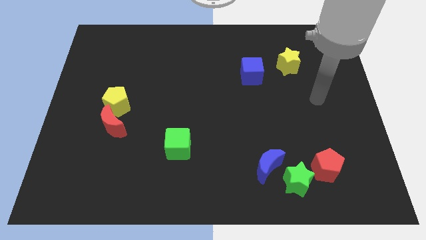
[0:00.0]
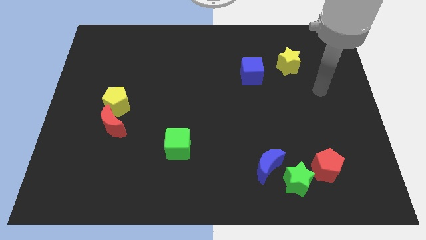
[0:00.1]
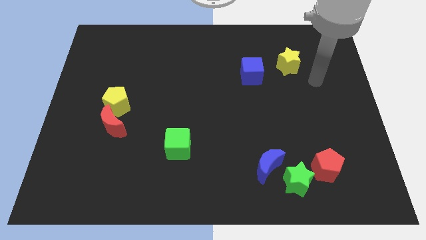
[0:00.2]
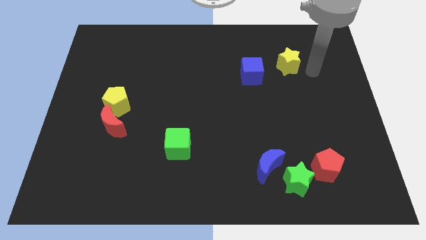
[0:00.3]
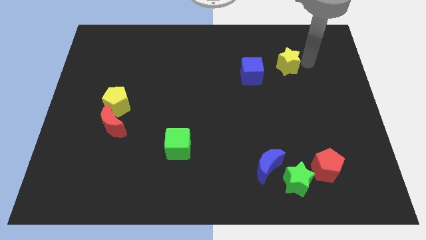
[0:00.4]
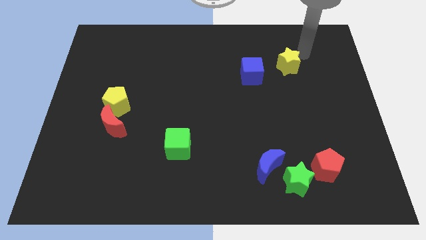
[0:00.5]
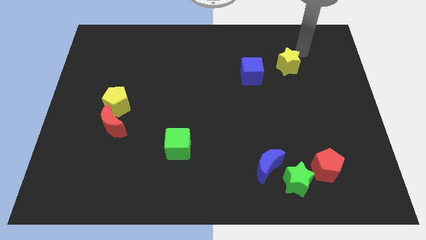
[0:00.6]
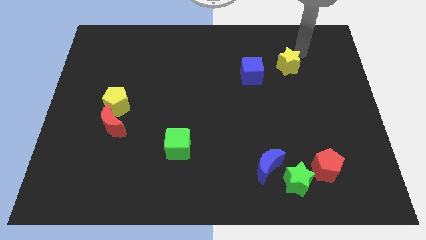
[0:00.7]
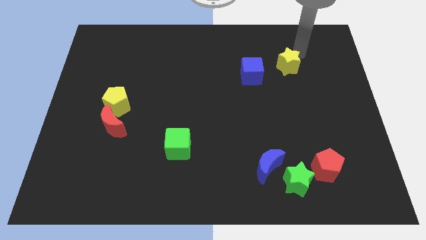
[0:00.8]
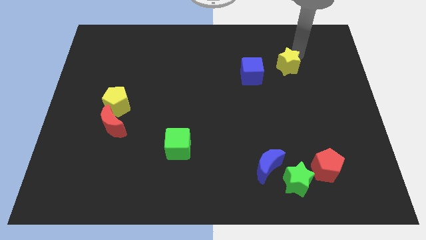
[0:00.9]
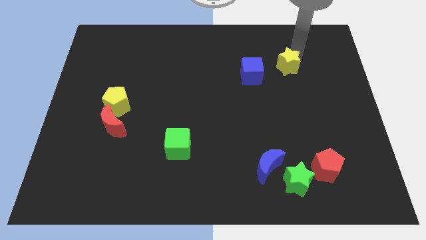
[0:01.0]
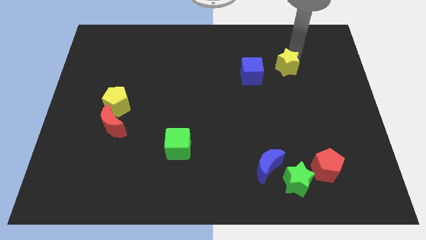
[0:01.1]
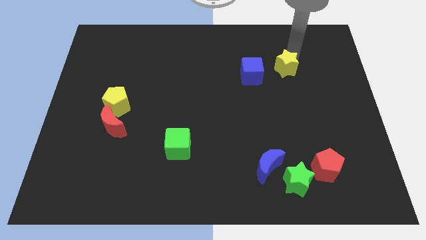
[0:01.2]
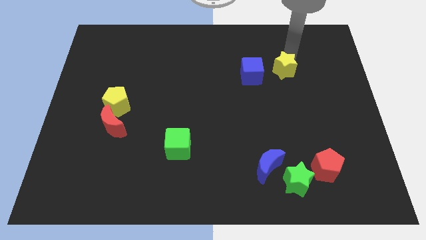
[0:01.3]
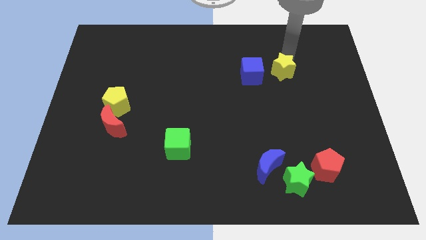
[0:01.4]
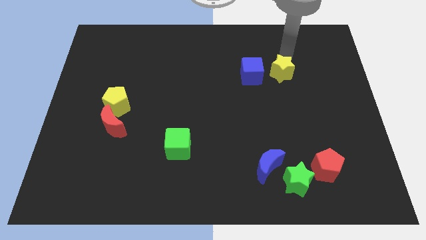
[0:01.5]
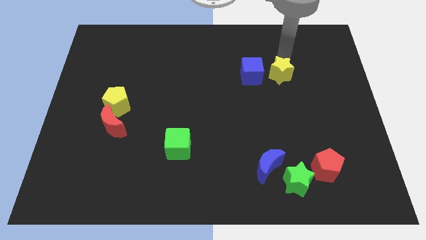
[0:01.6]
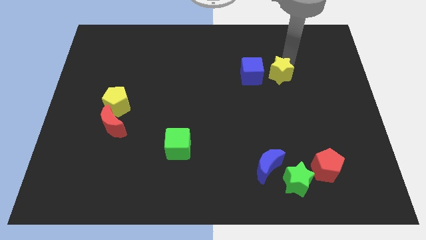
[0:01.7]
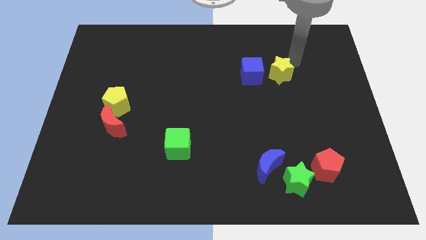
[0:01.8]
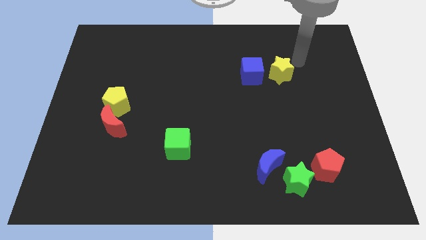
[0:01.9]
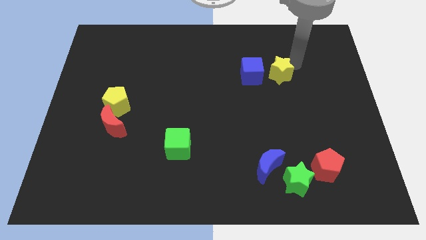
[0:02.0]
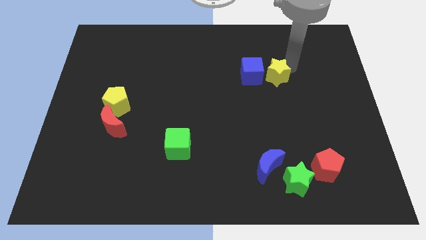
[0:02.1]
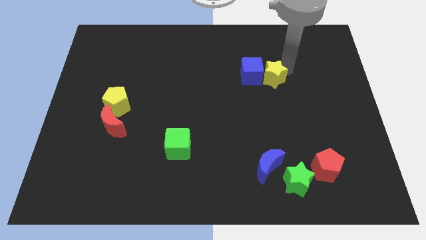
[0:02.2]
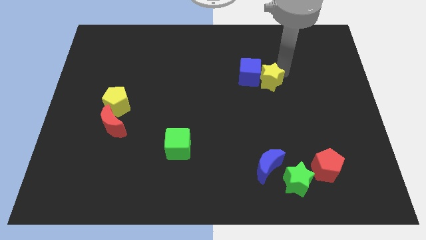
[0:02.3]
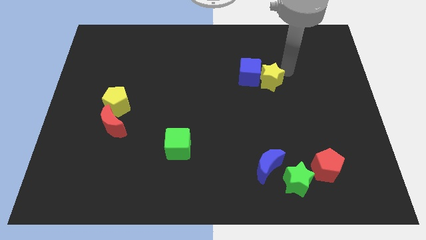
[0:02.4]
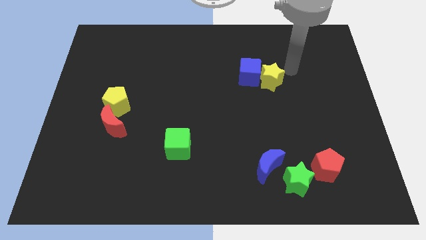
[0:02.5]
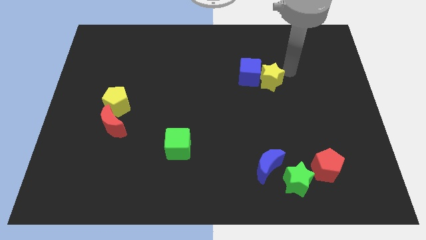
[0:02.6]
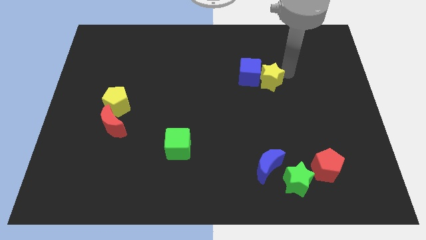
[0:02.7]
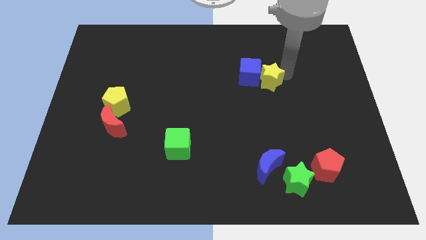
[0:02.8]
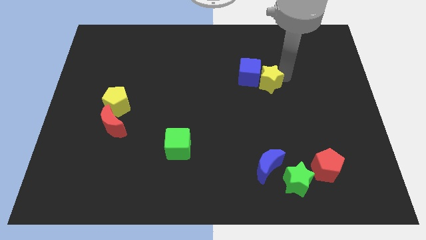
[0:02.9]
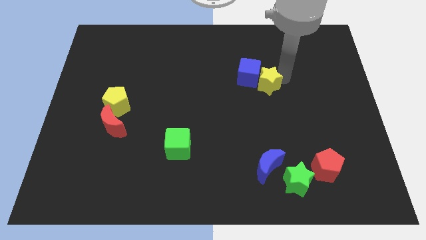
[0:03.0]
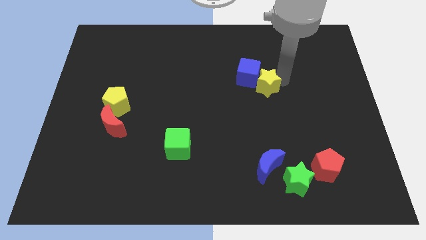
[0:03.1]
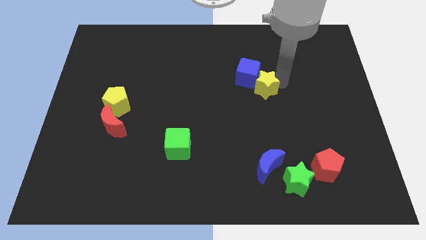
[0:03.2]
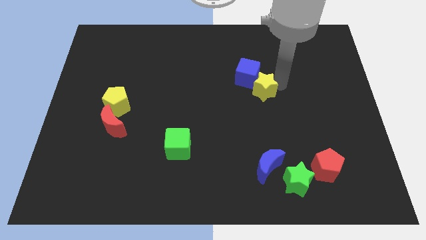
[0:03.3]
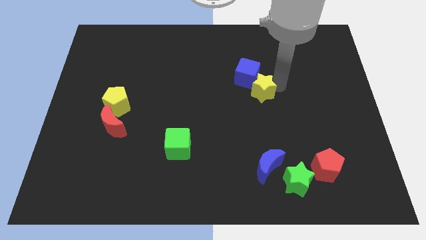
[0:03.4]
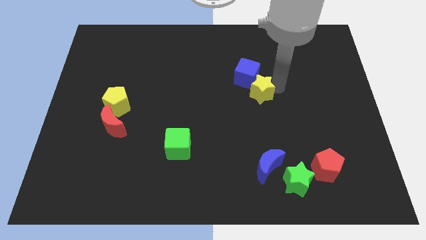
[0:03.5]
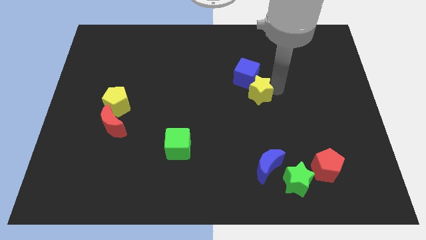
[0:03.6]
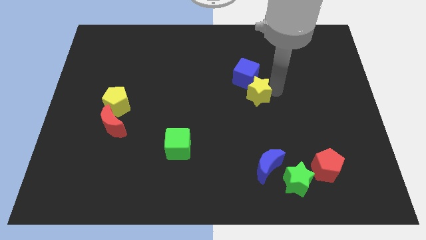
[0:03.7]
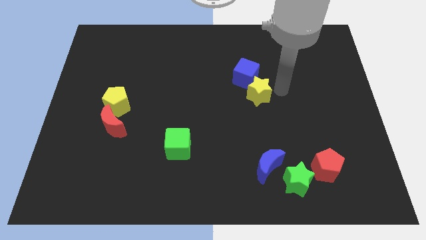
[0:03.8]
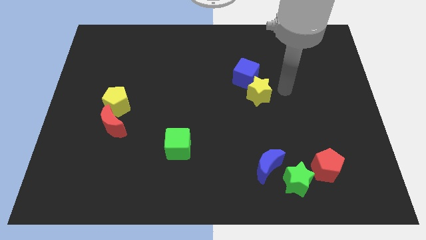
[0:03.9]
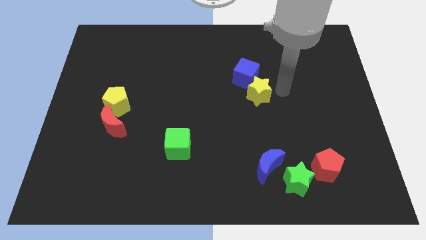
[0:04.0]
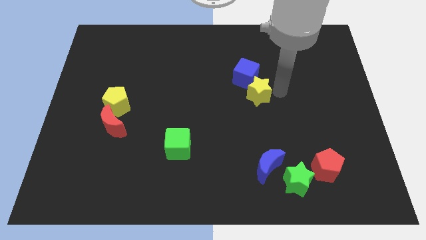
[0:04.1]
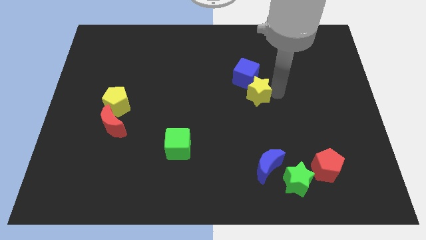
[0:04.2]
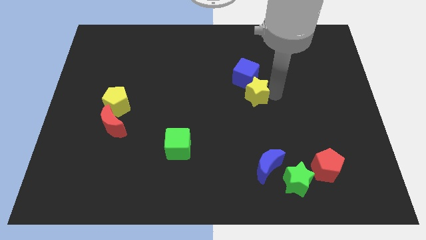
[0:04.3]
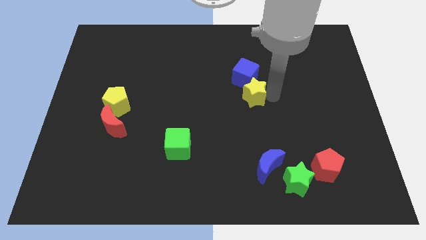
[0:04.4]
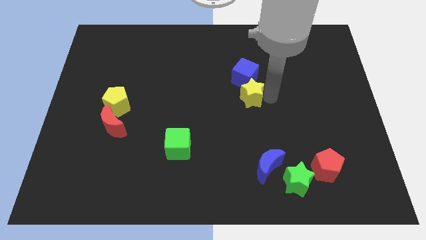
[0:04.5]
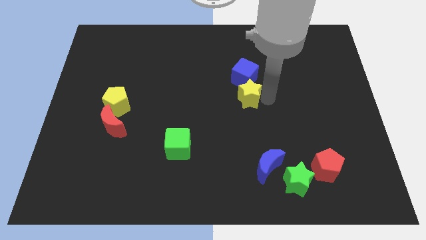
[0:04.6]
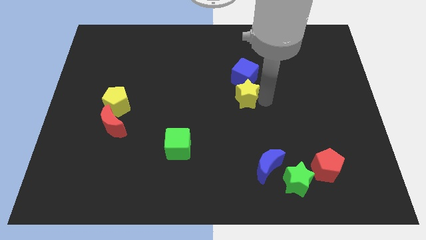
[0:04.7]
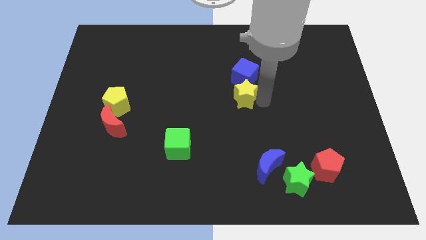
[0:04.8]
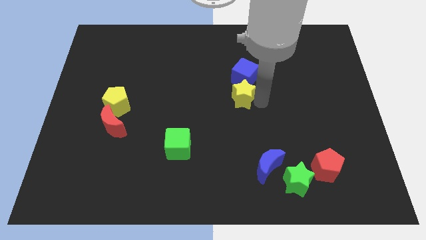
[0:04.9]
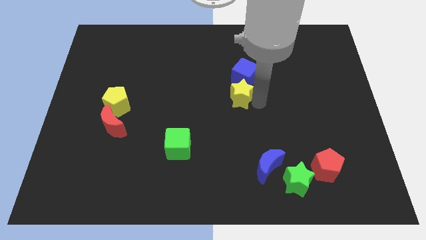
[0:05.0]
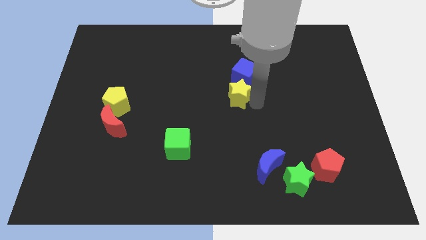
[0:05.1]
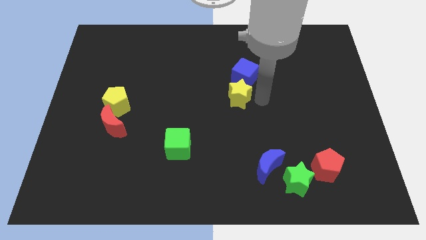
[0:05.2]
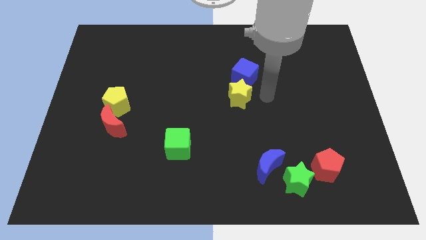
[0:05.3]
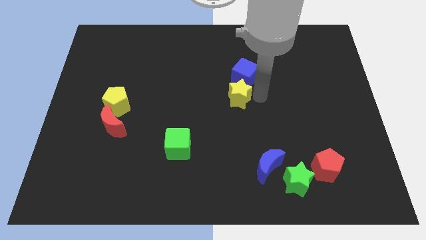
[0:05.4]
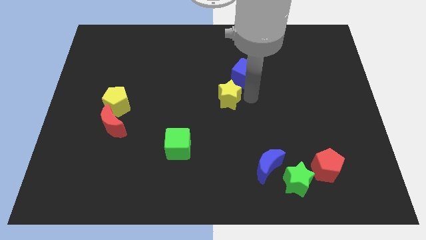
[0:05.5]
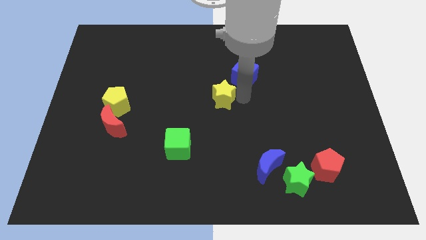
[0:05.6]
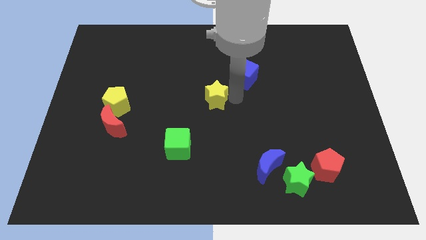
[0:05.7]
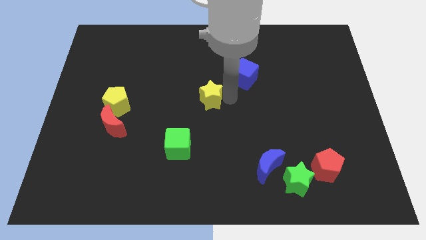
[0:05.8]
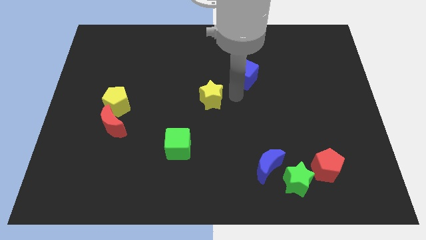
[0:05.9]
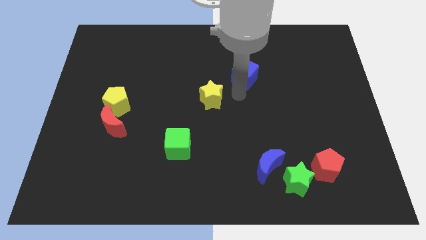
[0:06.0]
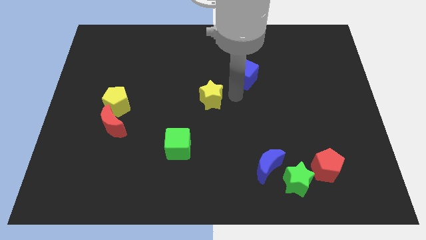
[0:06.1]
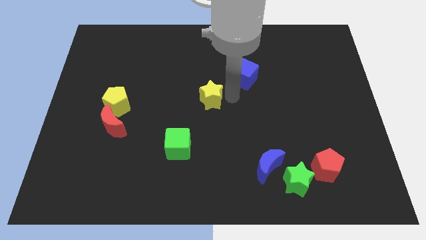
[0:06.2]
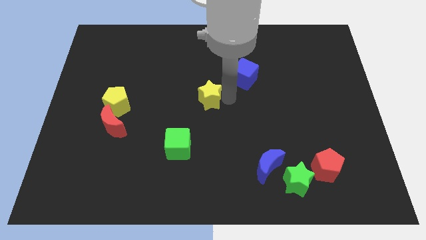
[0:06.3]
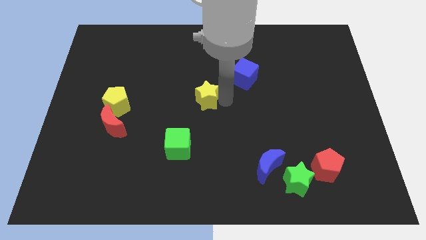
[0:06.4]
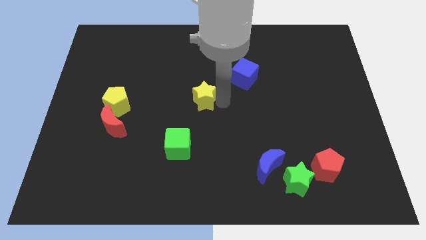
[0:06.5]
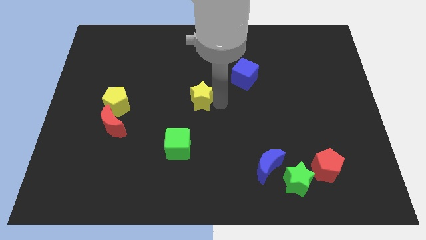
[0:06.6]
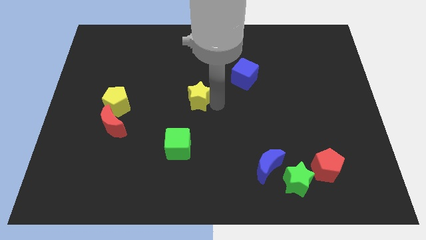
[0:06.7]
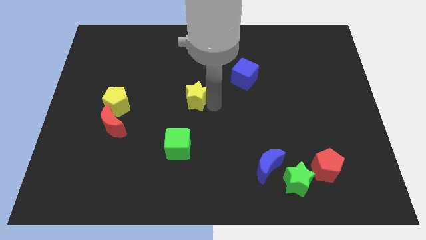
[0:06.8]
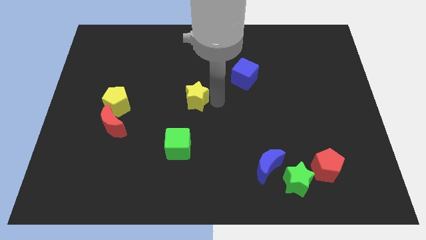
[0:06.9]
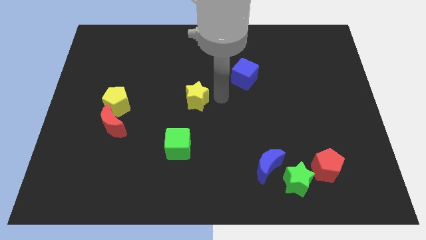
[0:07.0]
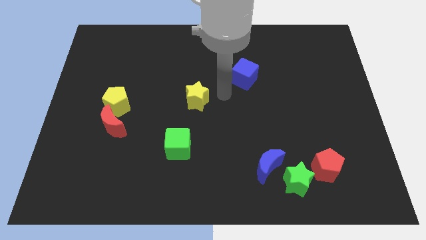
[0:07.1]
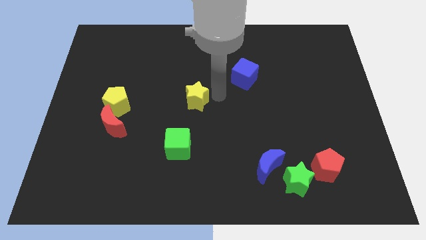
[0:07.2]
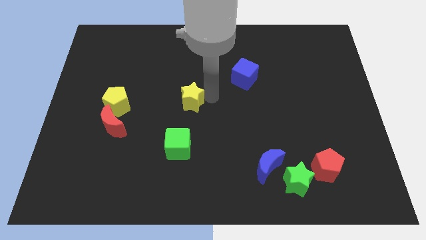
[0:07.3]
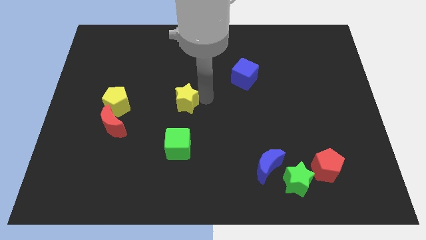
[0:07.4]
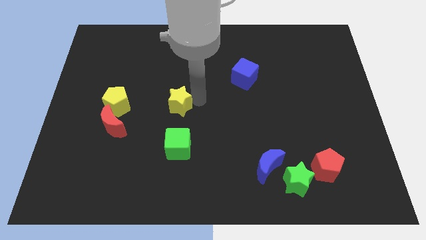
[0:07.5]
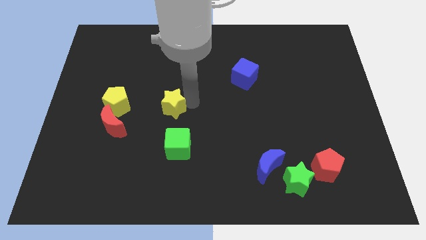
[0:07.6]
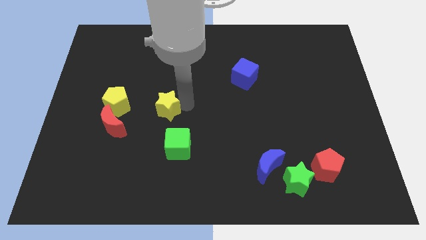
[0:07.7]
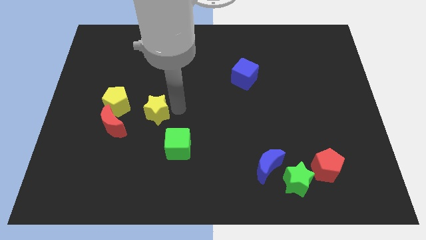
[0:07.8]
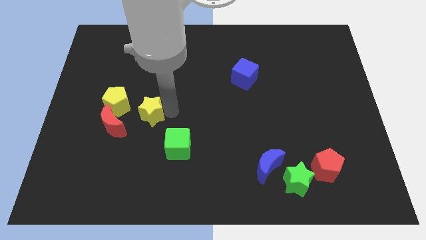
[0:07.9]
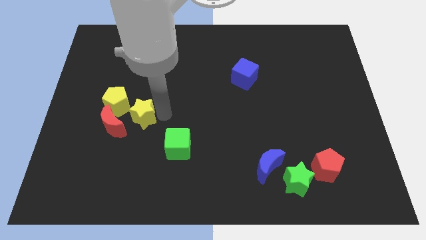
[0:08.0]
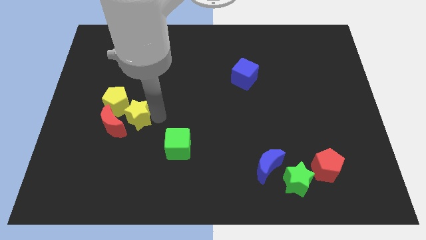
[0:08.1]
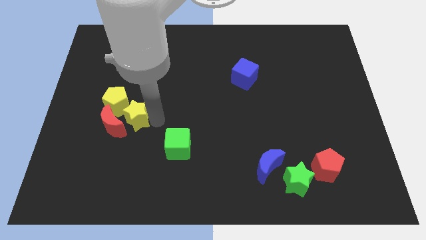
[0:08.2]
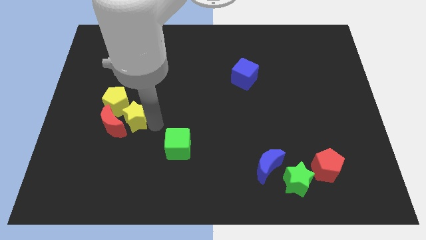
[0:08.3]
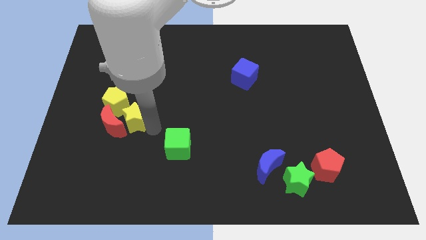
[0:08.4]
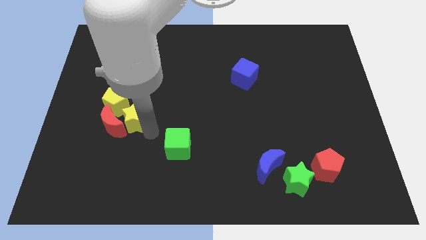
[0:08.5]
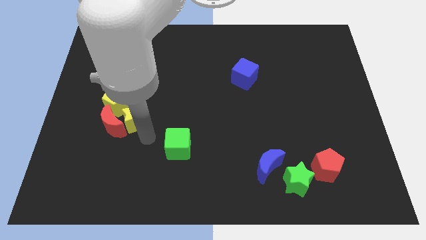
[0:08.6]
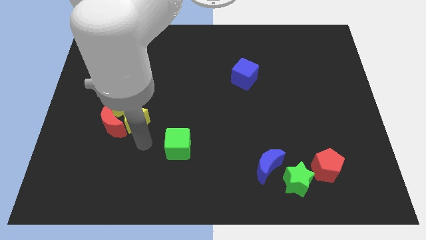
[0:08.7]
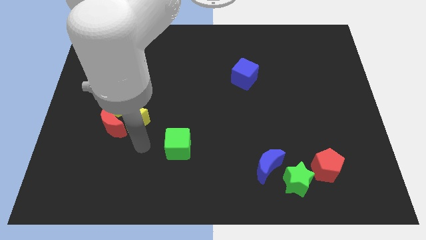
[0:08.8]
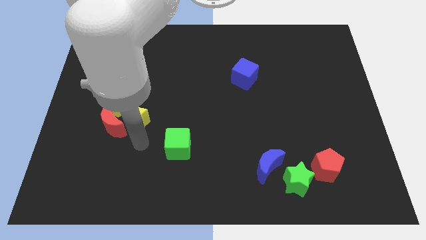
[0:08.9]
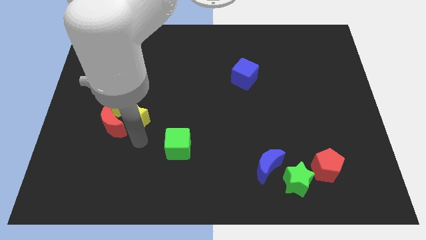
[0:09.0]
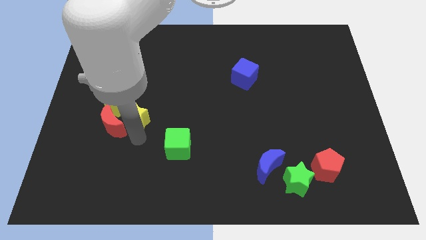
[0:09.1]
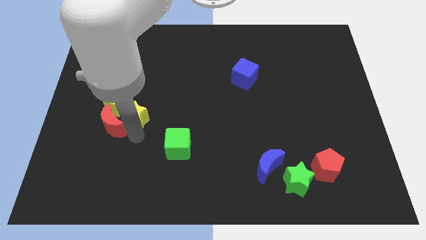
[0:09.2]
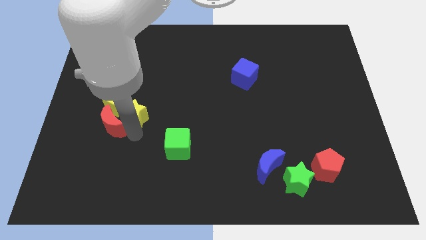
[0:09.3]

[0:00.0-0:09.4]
slide the yellow star next to the yellow pentagon
